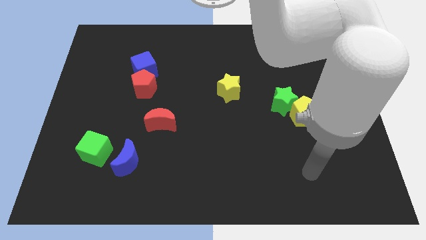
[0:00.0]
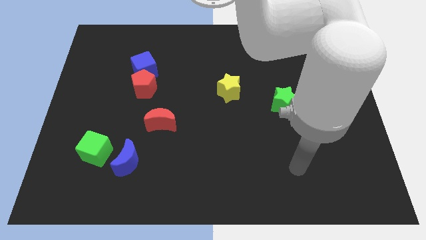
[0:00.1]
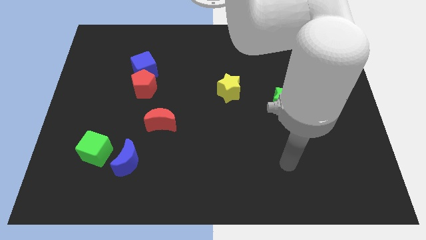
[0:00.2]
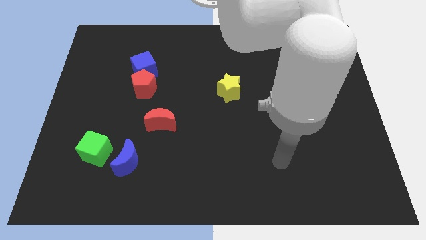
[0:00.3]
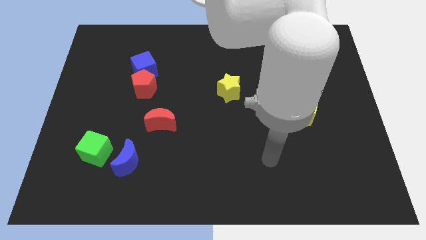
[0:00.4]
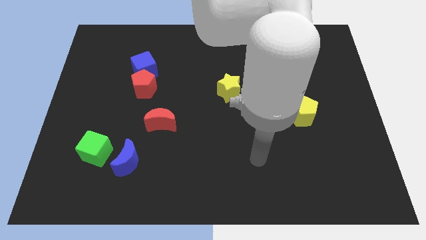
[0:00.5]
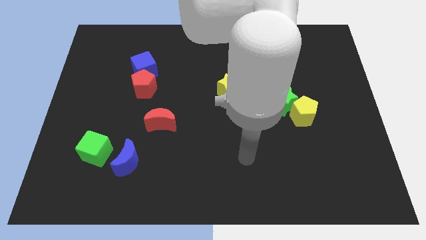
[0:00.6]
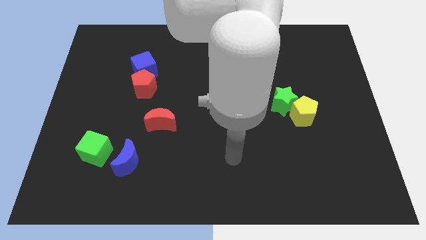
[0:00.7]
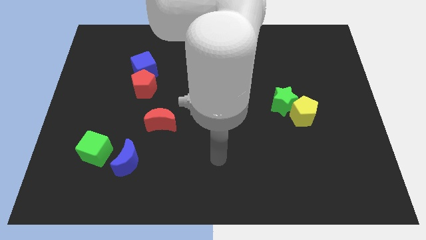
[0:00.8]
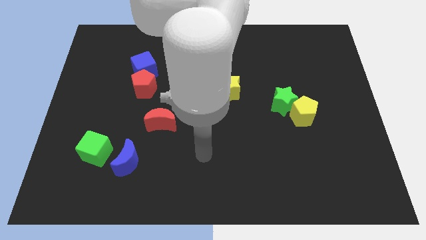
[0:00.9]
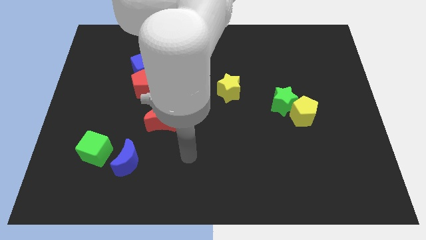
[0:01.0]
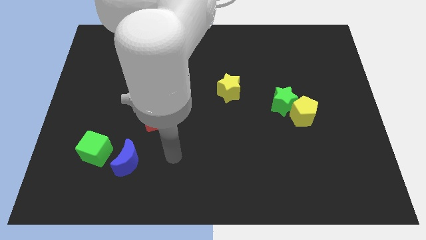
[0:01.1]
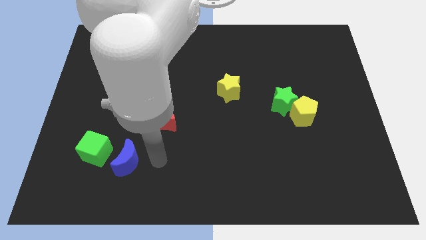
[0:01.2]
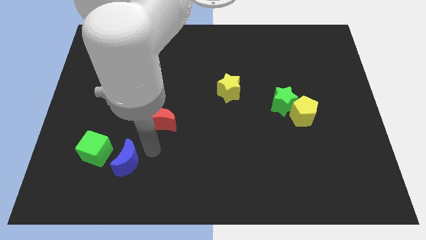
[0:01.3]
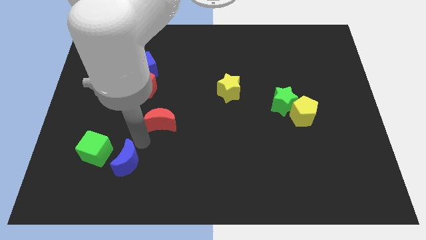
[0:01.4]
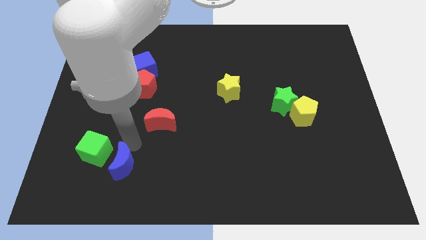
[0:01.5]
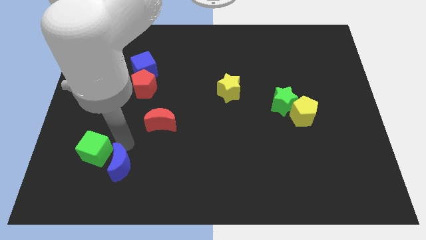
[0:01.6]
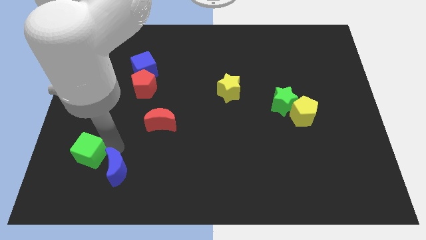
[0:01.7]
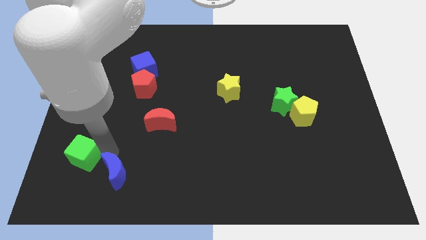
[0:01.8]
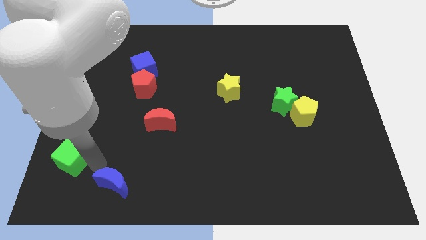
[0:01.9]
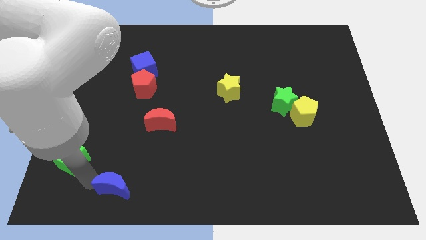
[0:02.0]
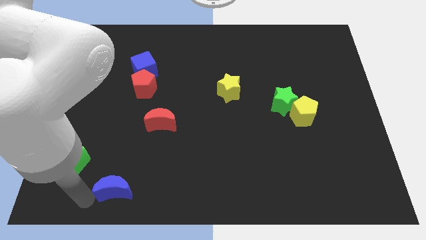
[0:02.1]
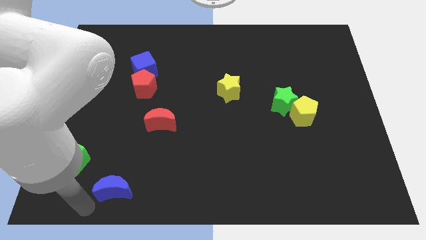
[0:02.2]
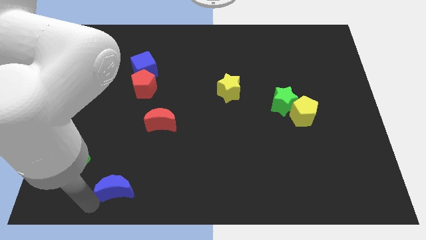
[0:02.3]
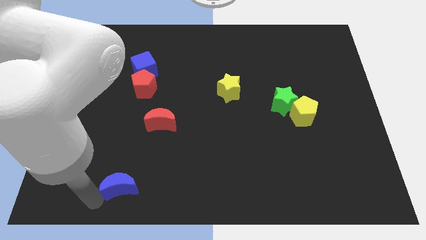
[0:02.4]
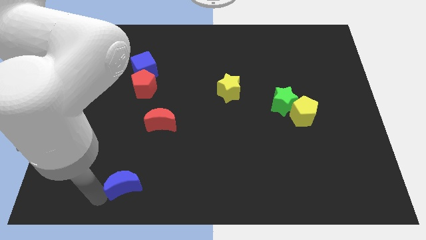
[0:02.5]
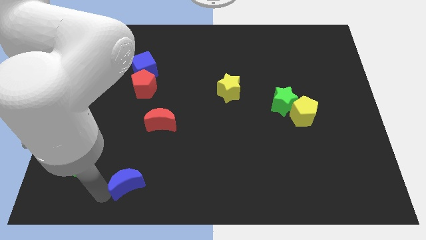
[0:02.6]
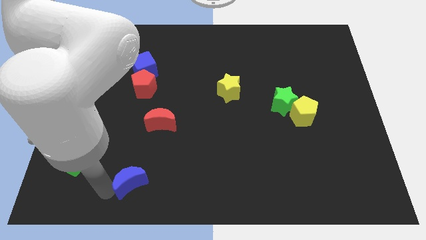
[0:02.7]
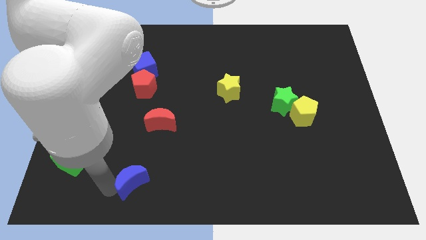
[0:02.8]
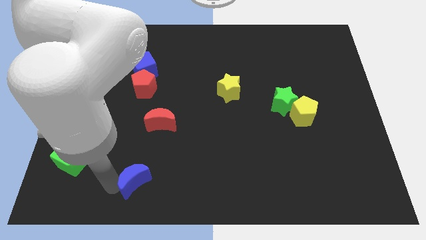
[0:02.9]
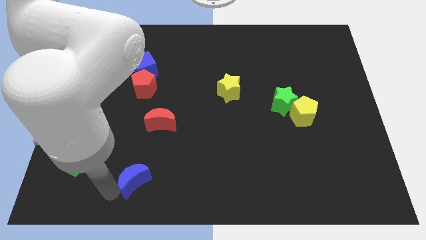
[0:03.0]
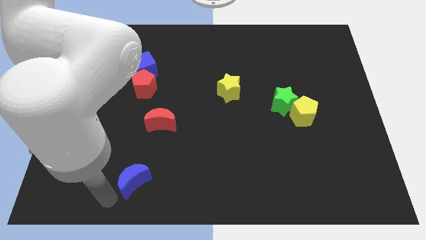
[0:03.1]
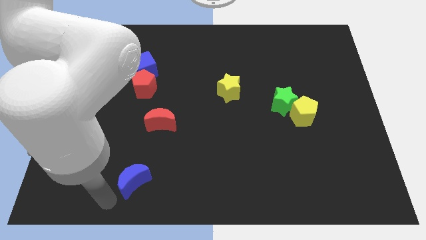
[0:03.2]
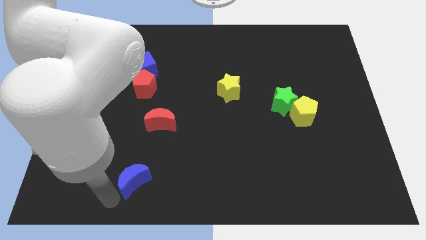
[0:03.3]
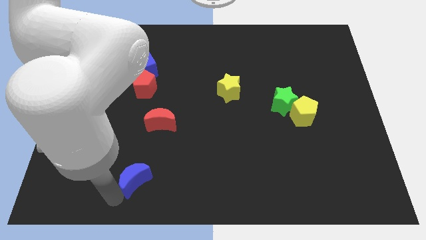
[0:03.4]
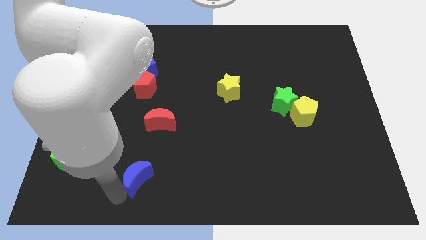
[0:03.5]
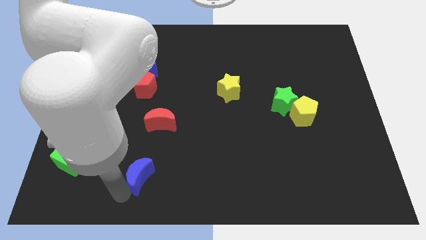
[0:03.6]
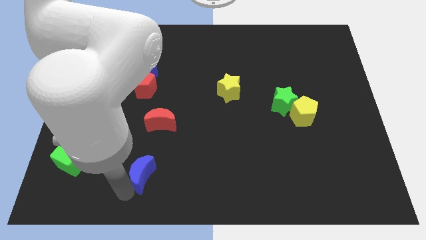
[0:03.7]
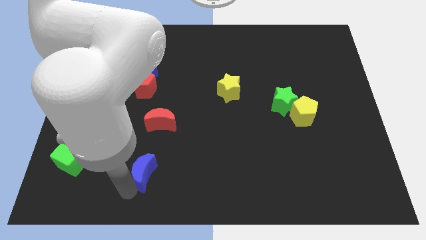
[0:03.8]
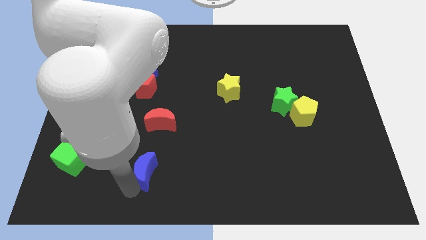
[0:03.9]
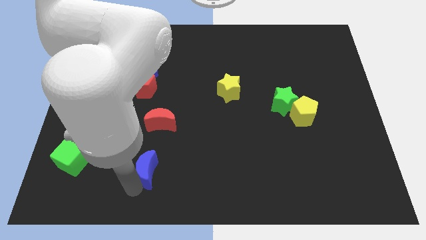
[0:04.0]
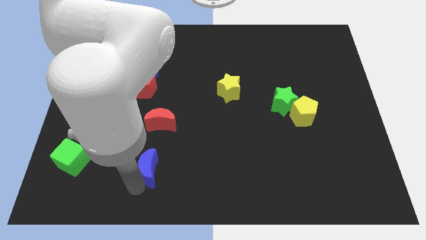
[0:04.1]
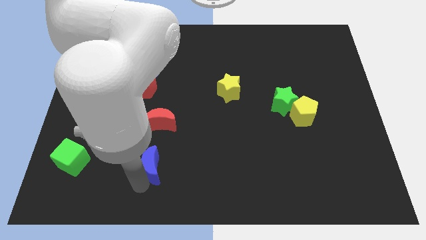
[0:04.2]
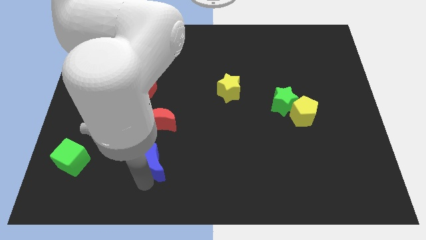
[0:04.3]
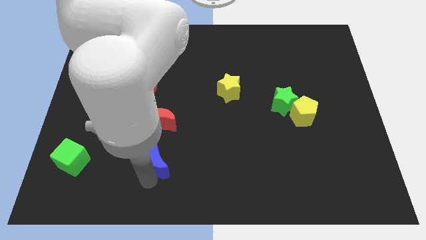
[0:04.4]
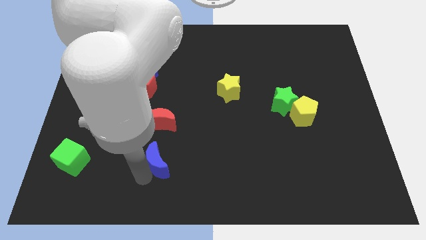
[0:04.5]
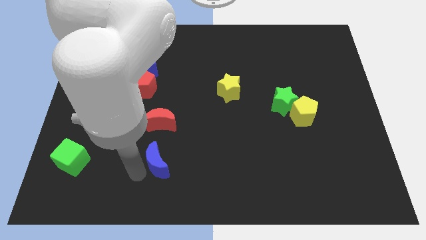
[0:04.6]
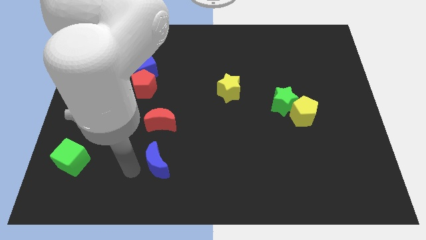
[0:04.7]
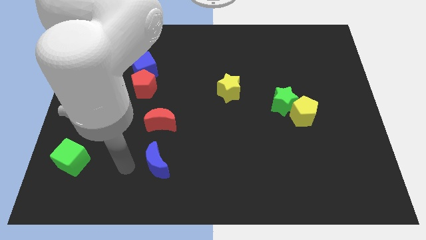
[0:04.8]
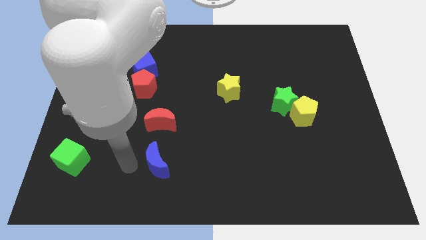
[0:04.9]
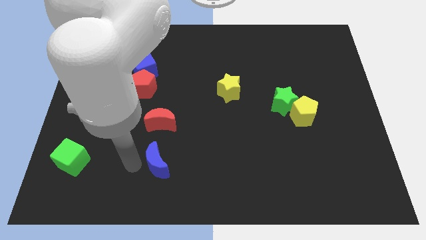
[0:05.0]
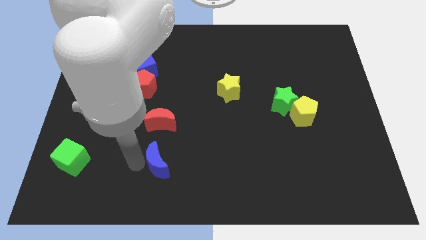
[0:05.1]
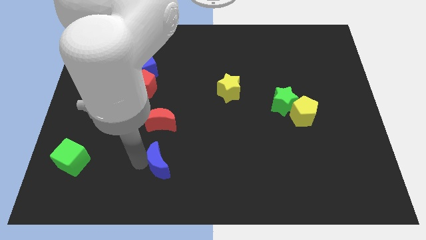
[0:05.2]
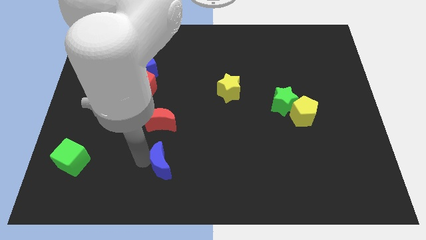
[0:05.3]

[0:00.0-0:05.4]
slide the blue moon a bit to the right

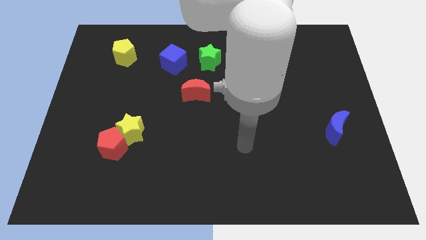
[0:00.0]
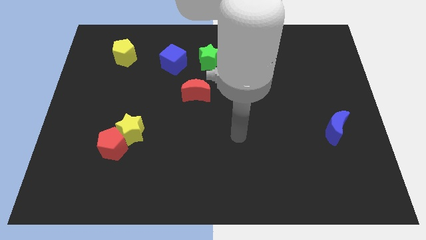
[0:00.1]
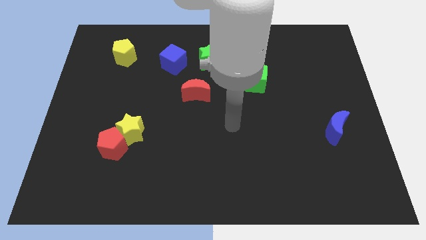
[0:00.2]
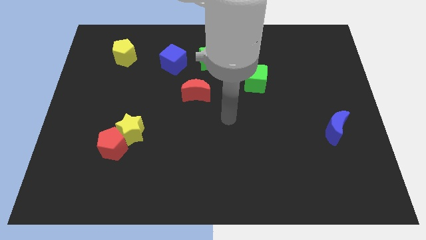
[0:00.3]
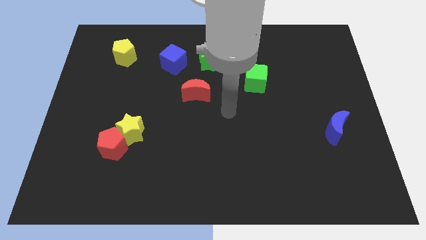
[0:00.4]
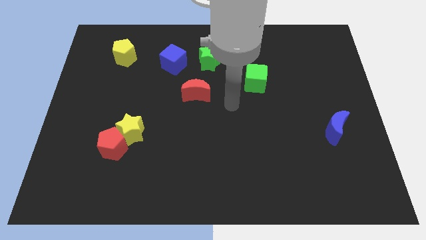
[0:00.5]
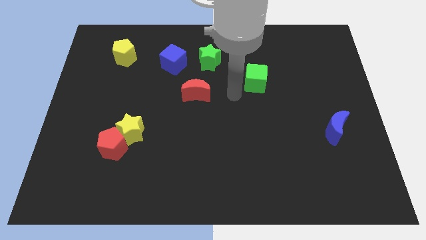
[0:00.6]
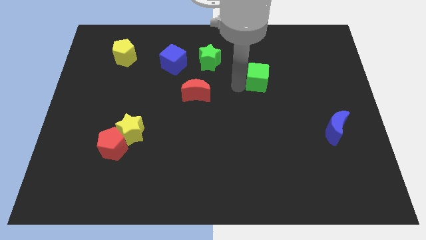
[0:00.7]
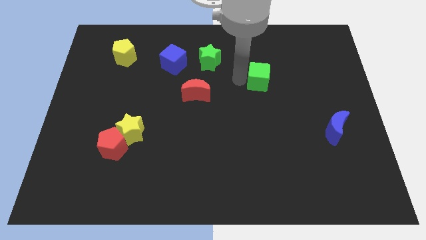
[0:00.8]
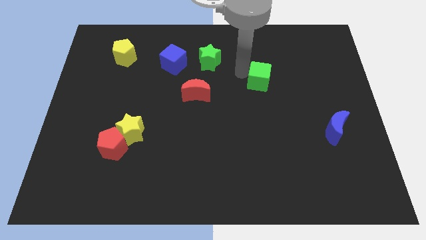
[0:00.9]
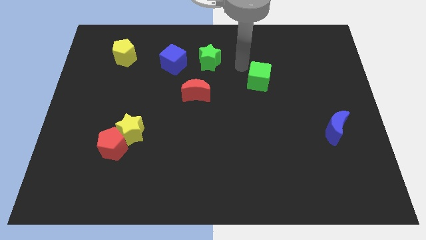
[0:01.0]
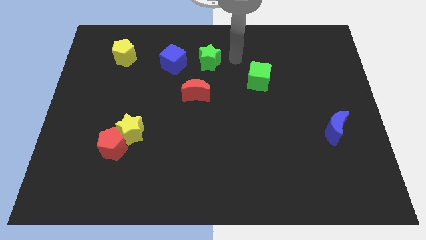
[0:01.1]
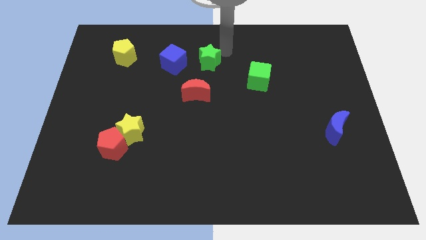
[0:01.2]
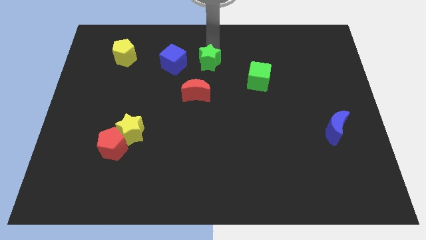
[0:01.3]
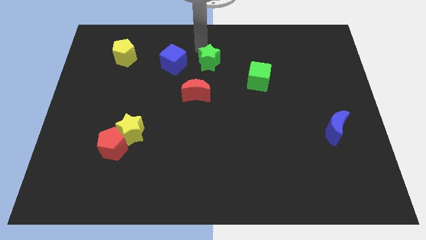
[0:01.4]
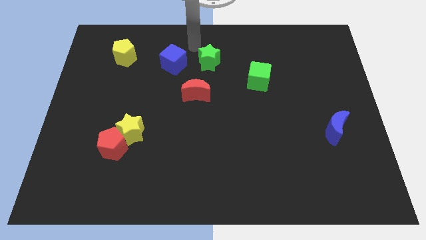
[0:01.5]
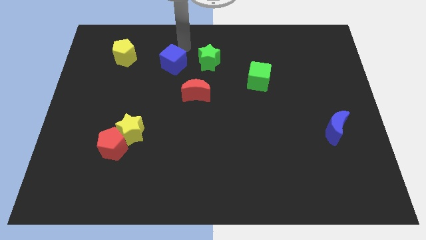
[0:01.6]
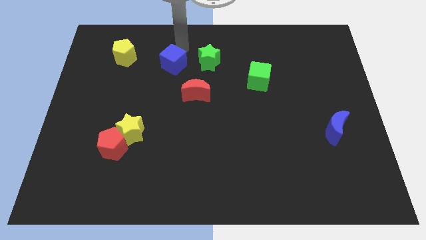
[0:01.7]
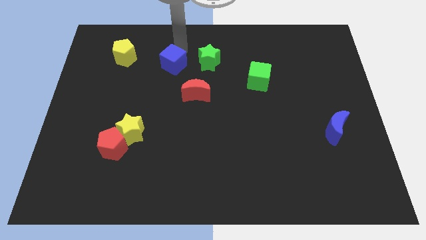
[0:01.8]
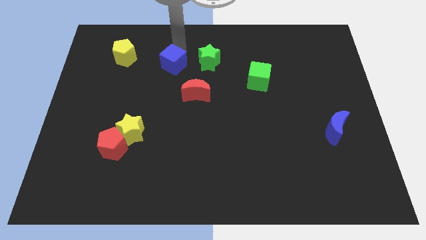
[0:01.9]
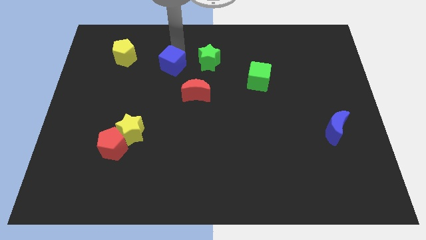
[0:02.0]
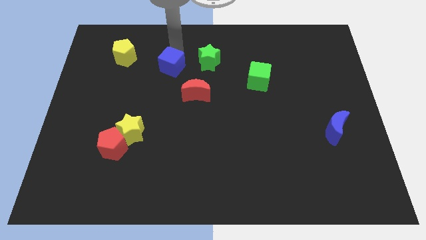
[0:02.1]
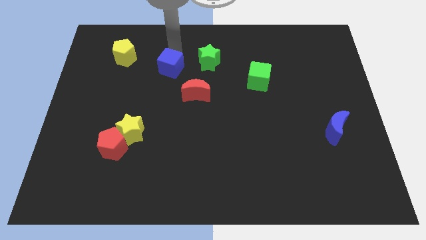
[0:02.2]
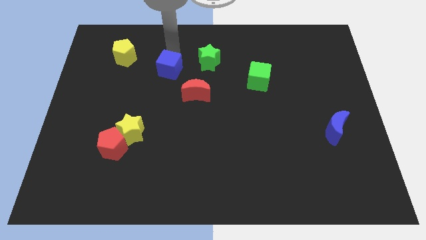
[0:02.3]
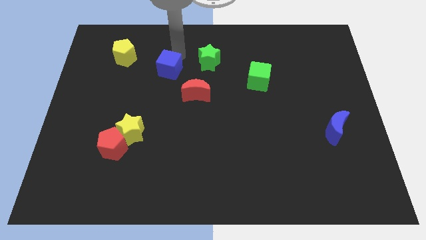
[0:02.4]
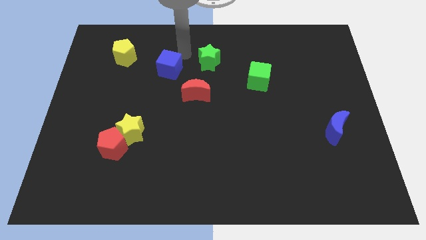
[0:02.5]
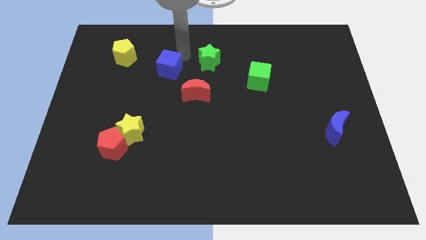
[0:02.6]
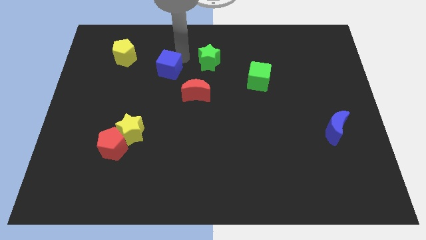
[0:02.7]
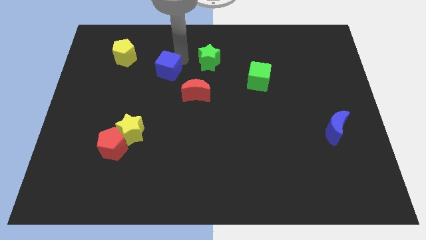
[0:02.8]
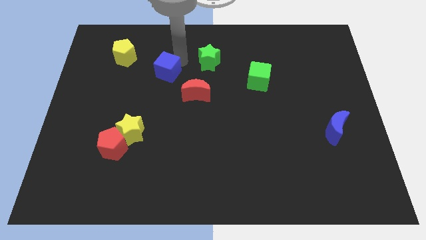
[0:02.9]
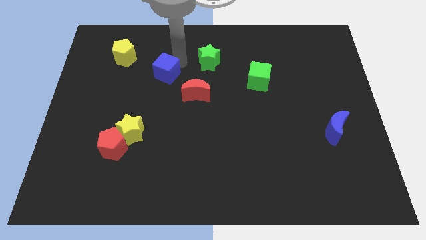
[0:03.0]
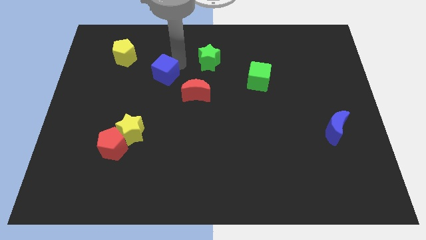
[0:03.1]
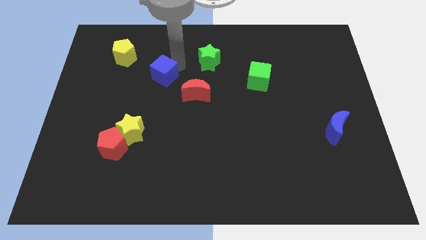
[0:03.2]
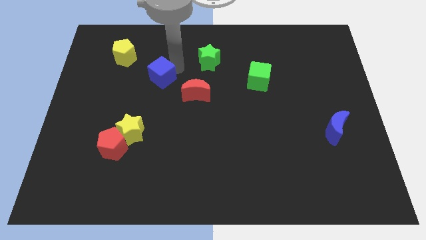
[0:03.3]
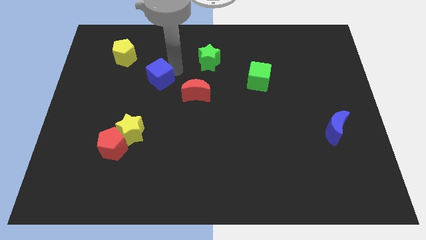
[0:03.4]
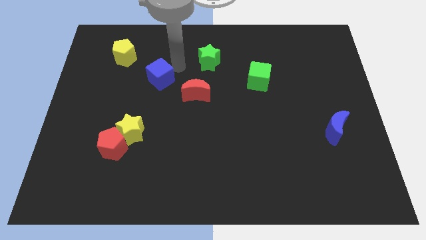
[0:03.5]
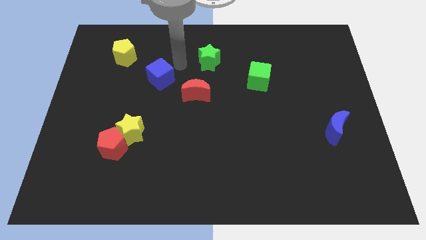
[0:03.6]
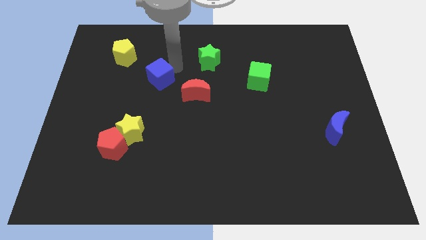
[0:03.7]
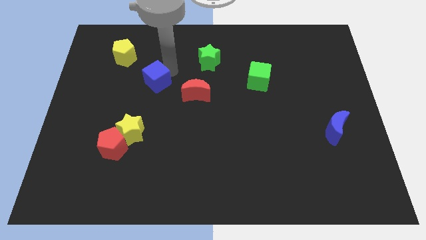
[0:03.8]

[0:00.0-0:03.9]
move the blue cube a little down and then left
